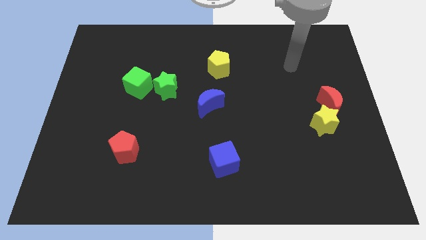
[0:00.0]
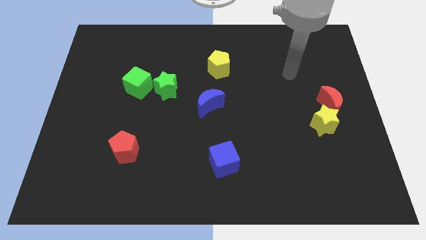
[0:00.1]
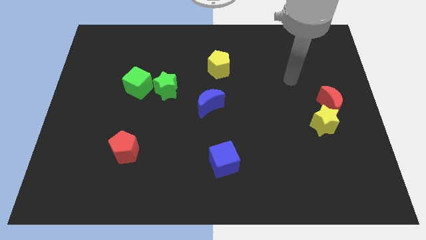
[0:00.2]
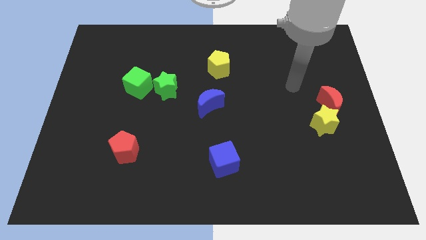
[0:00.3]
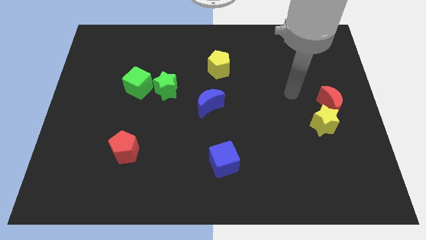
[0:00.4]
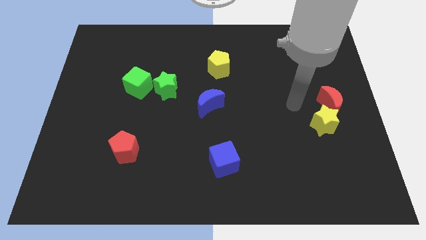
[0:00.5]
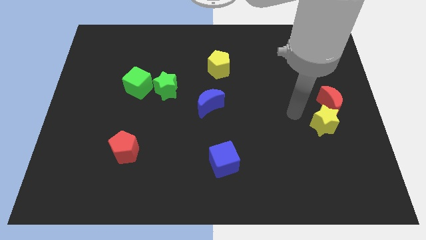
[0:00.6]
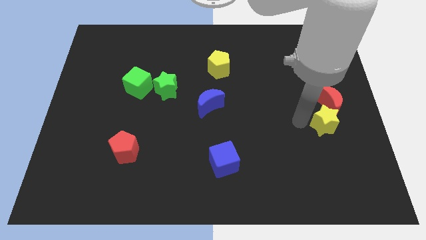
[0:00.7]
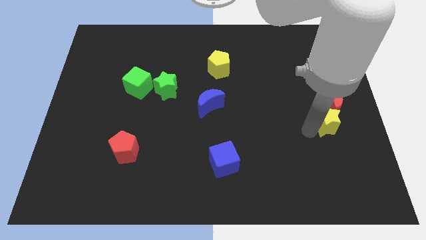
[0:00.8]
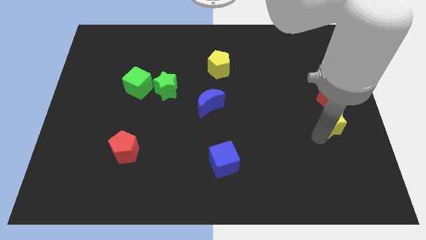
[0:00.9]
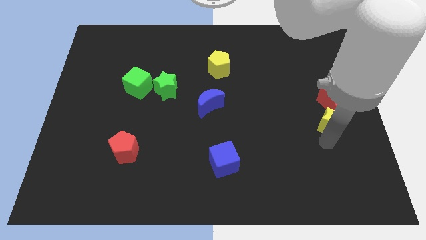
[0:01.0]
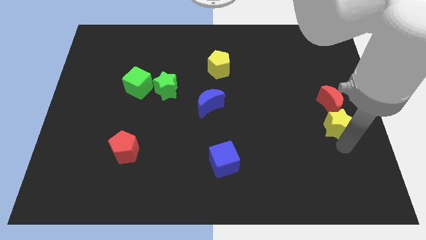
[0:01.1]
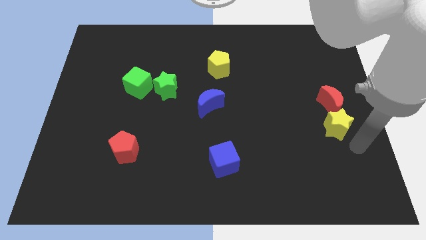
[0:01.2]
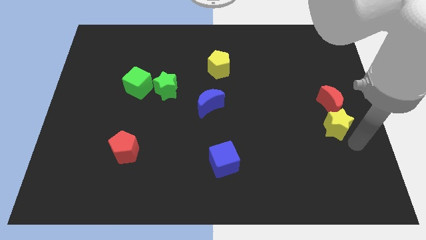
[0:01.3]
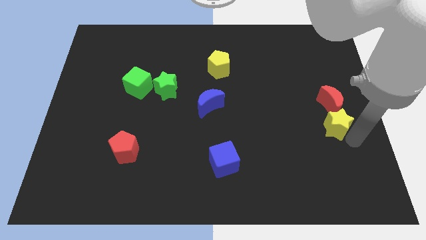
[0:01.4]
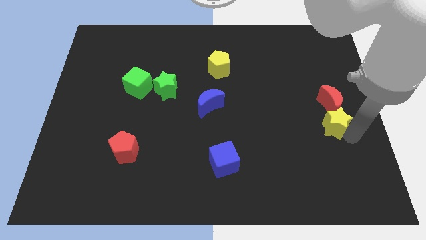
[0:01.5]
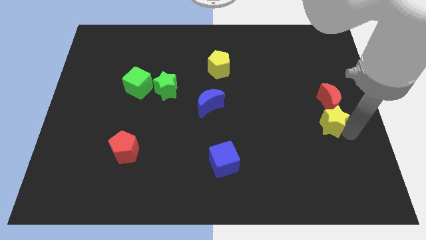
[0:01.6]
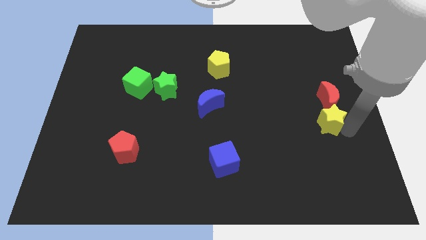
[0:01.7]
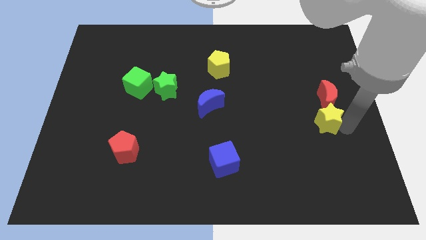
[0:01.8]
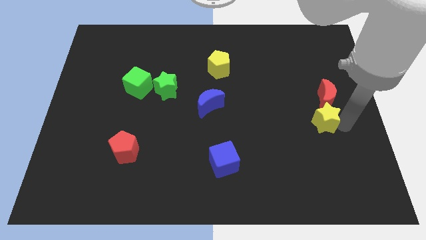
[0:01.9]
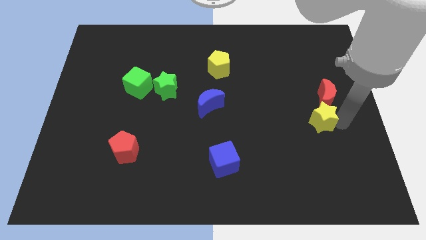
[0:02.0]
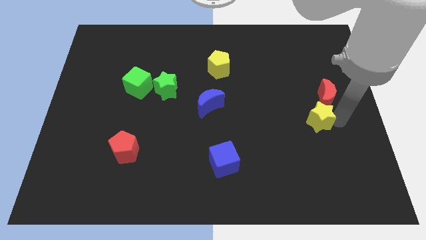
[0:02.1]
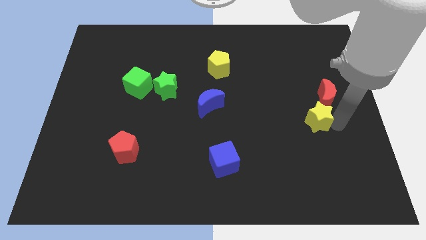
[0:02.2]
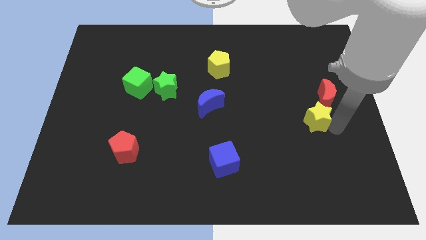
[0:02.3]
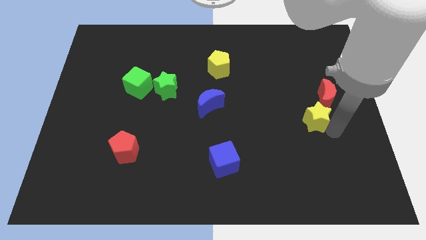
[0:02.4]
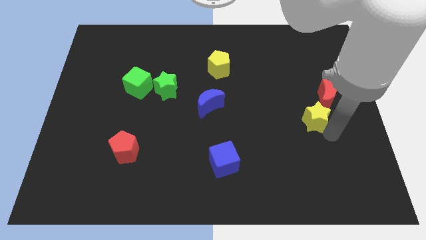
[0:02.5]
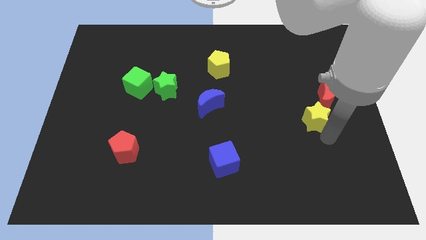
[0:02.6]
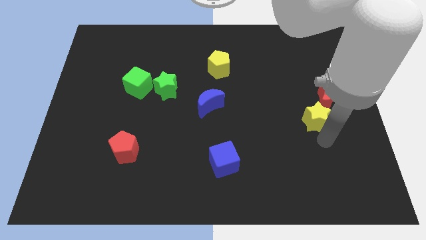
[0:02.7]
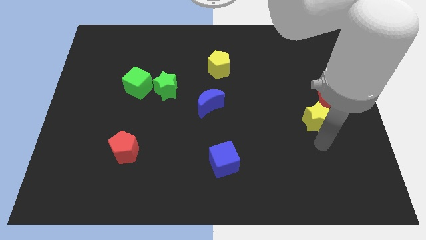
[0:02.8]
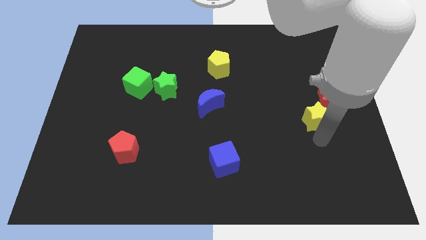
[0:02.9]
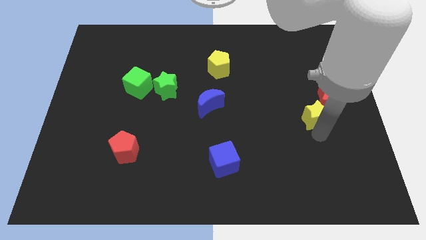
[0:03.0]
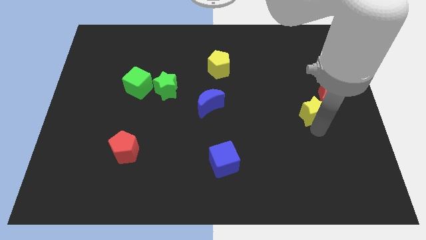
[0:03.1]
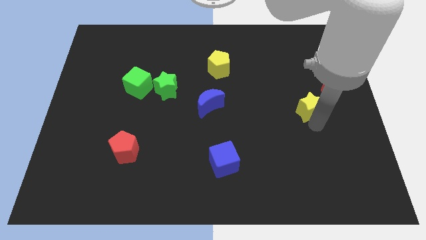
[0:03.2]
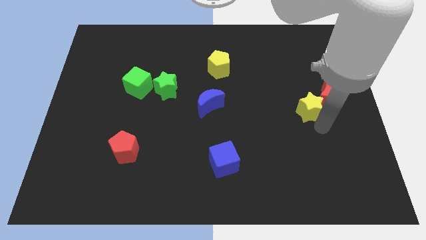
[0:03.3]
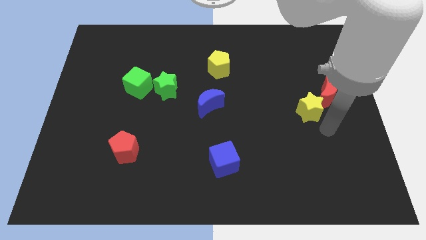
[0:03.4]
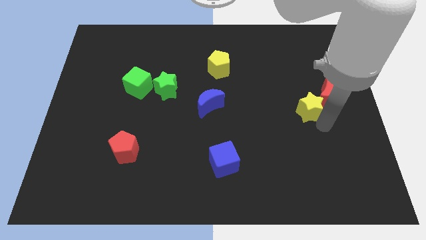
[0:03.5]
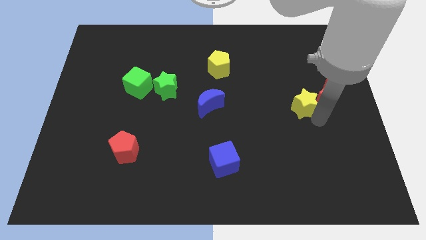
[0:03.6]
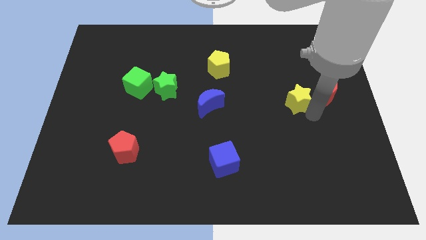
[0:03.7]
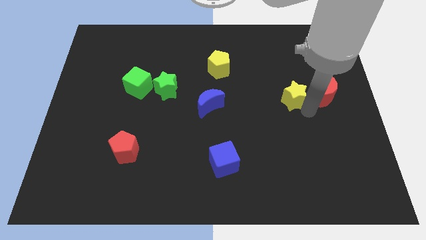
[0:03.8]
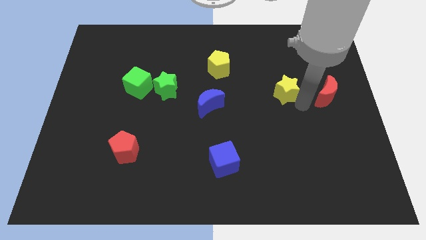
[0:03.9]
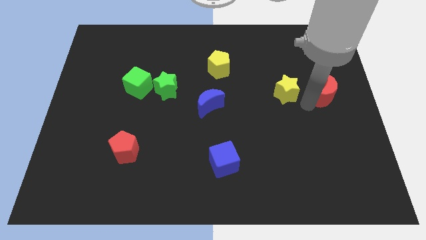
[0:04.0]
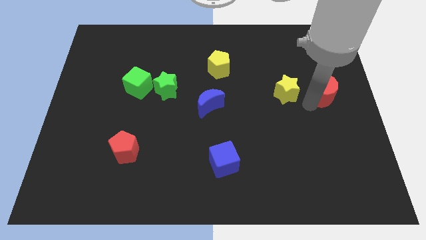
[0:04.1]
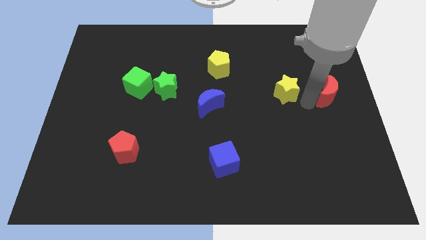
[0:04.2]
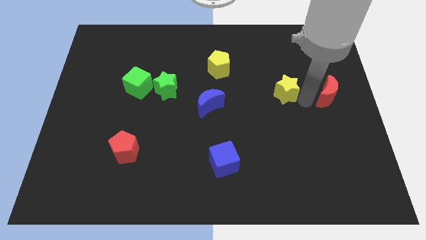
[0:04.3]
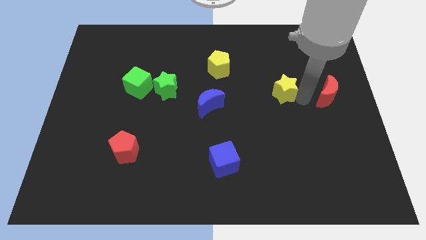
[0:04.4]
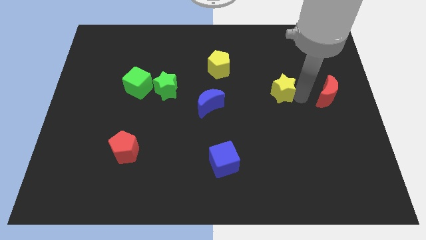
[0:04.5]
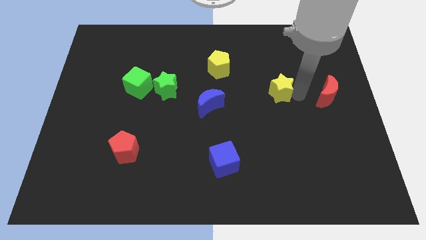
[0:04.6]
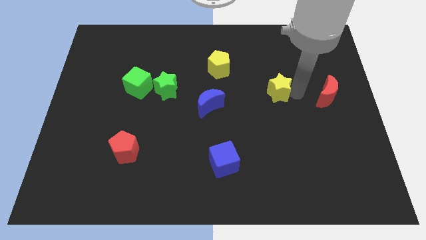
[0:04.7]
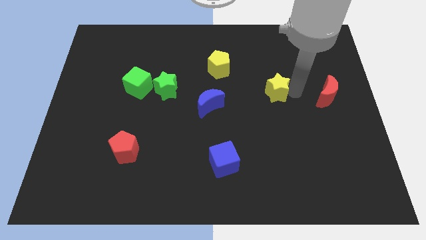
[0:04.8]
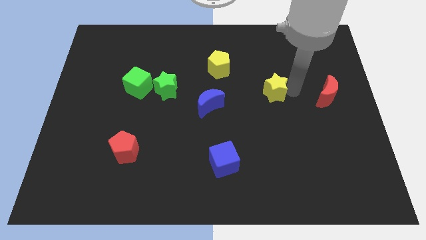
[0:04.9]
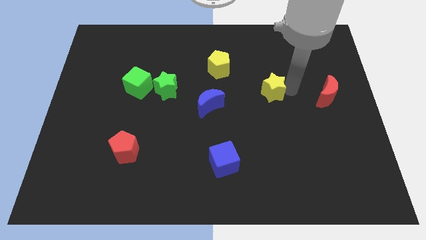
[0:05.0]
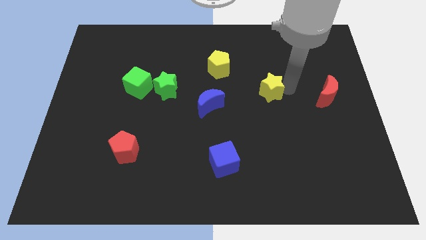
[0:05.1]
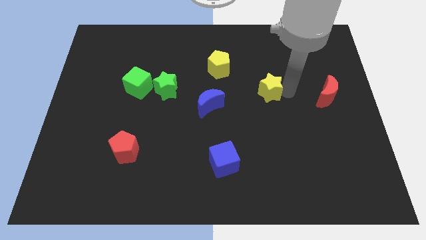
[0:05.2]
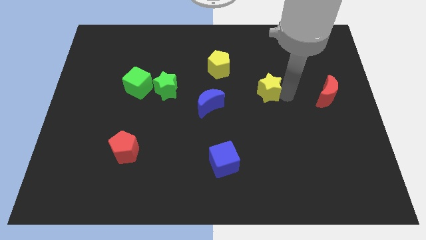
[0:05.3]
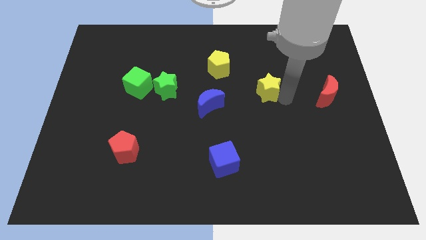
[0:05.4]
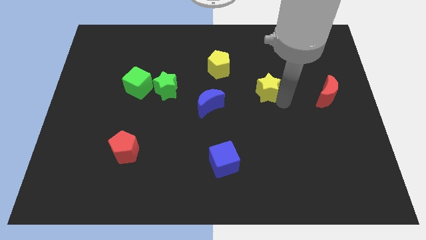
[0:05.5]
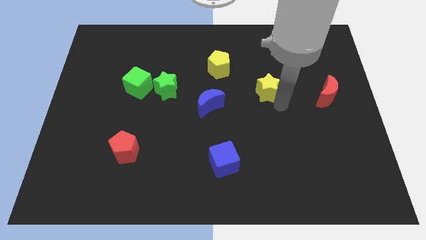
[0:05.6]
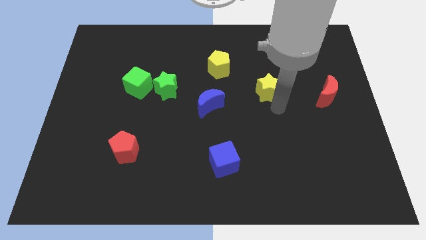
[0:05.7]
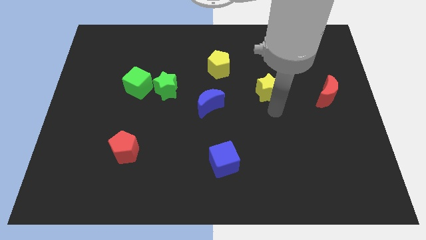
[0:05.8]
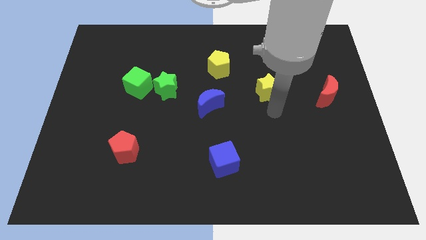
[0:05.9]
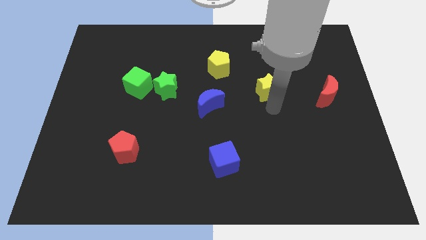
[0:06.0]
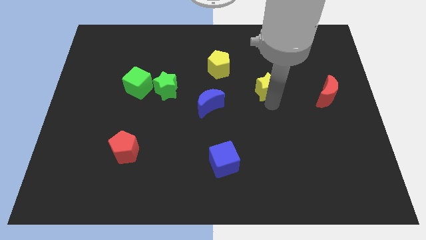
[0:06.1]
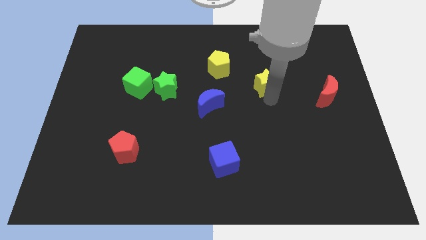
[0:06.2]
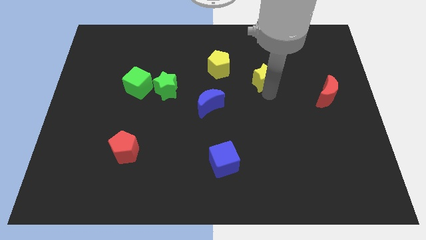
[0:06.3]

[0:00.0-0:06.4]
put the yellow star just right of the yellow pentagon

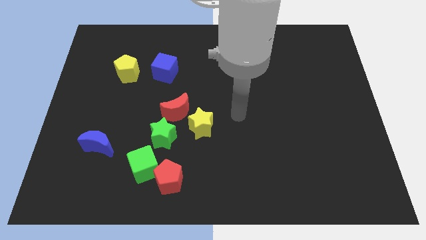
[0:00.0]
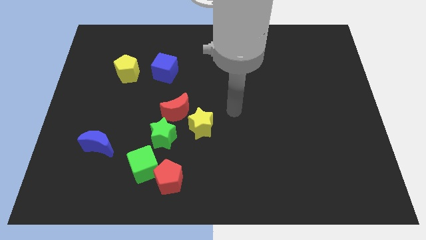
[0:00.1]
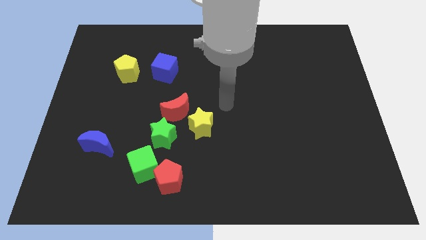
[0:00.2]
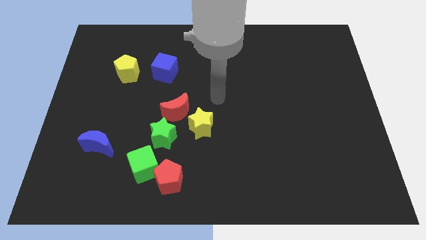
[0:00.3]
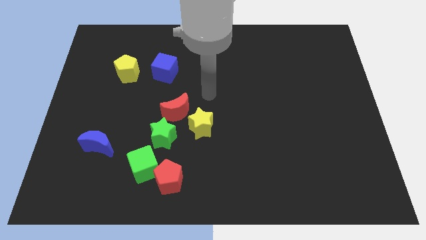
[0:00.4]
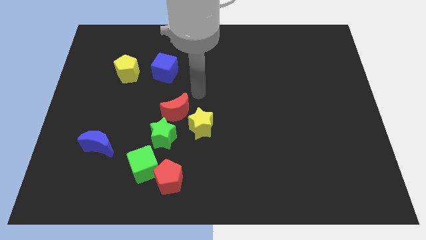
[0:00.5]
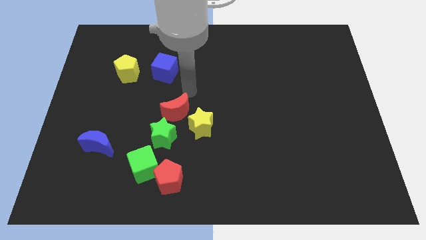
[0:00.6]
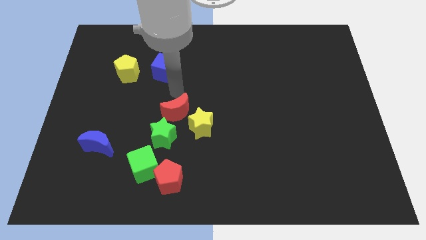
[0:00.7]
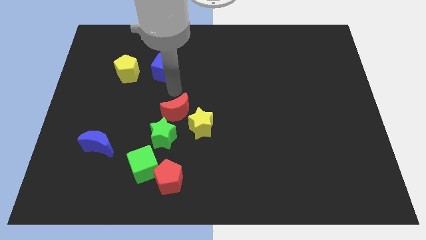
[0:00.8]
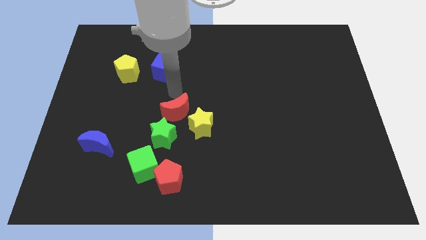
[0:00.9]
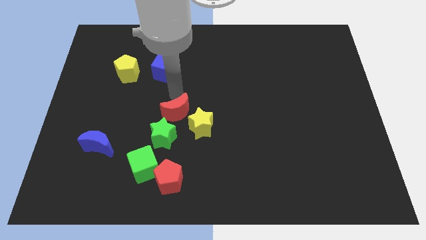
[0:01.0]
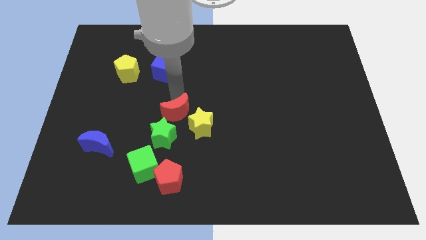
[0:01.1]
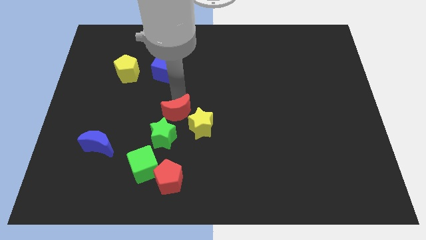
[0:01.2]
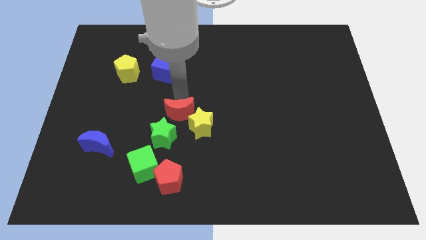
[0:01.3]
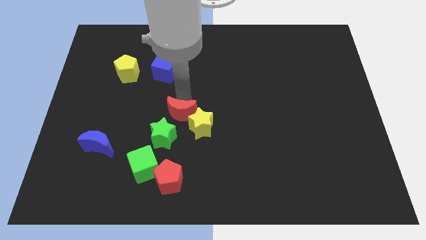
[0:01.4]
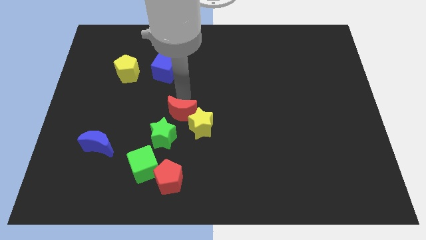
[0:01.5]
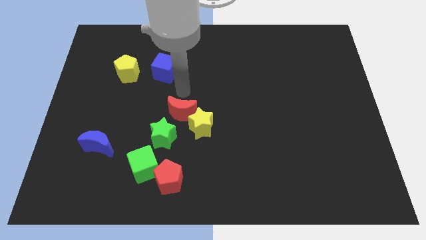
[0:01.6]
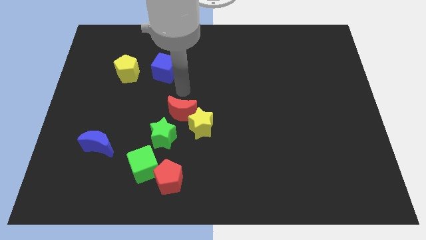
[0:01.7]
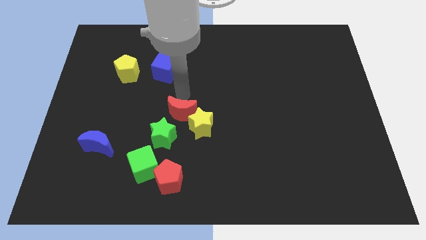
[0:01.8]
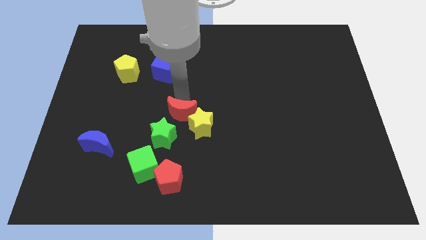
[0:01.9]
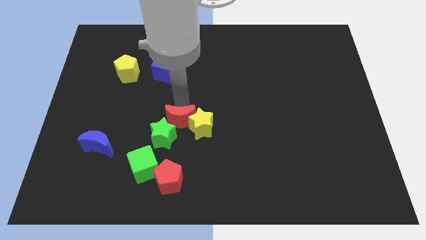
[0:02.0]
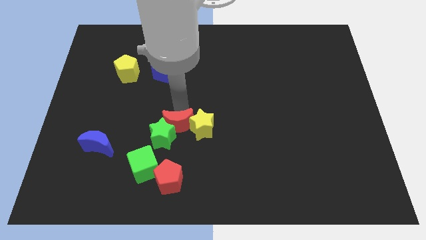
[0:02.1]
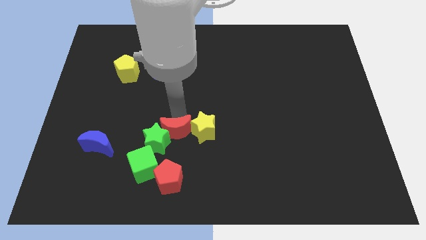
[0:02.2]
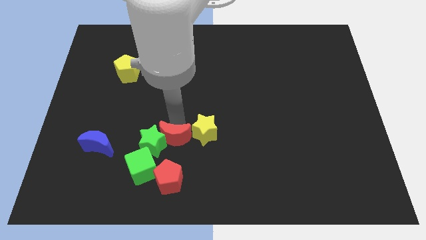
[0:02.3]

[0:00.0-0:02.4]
put the red moon to the bottom right side of the green star
